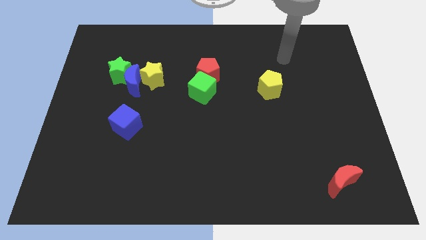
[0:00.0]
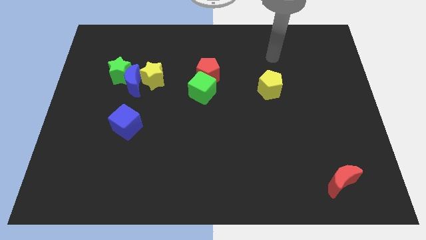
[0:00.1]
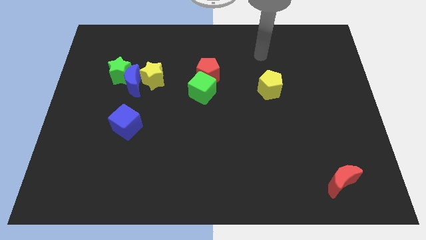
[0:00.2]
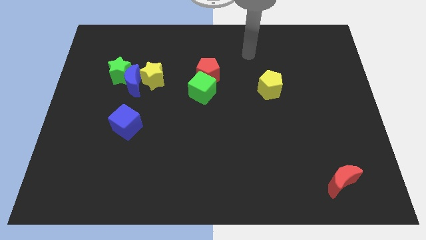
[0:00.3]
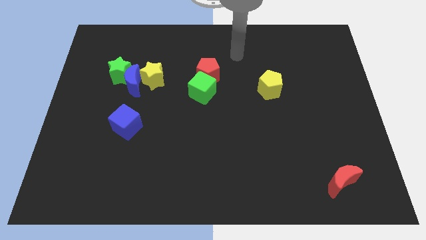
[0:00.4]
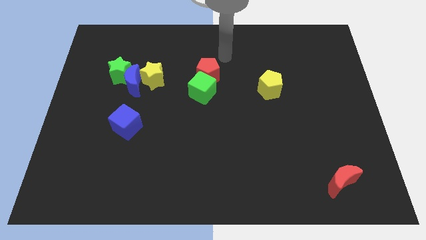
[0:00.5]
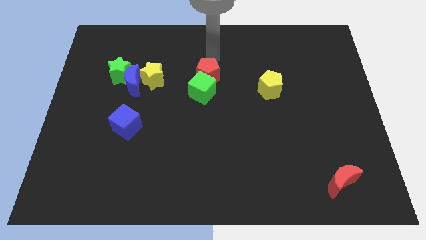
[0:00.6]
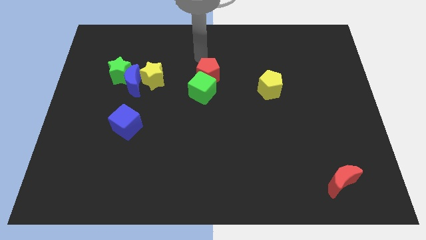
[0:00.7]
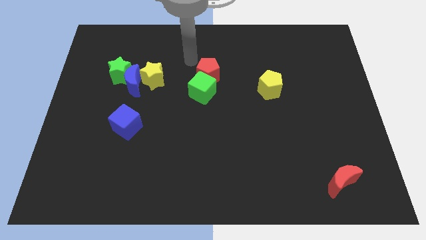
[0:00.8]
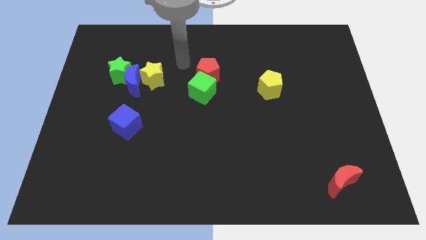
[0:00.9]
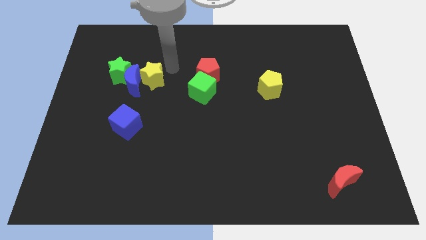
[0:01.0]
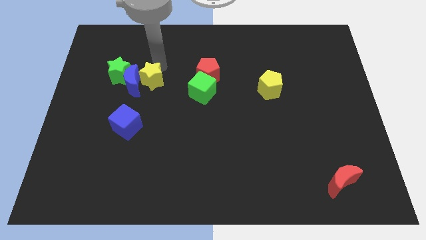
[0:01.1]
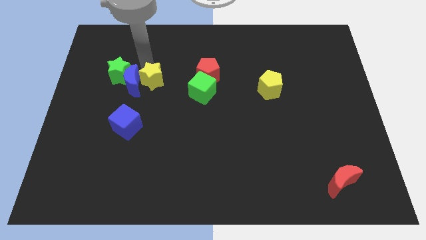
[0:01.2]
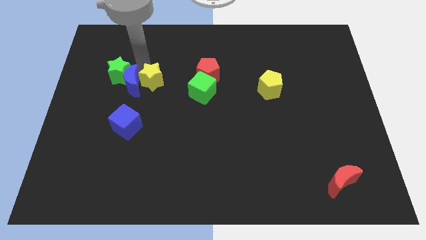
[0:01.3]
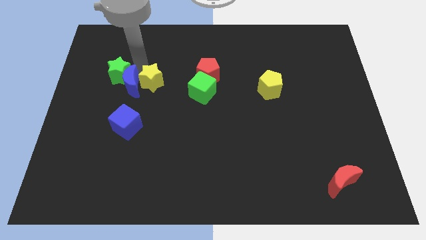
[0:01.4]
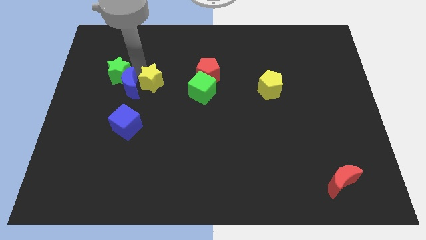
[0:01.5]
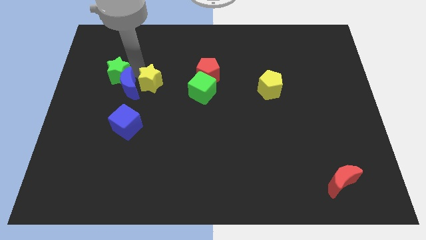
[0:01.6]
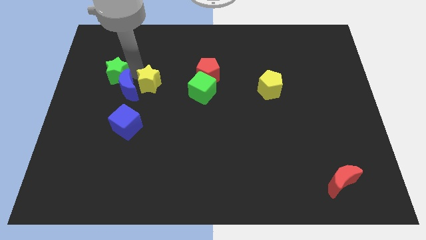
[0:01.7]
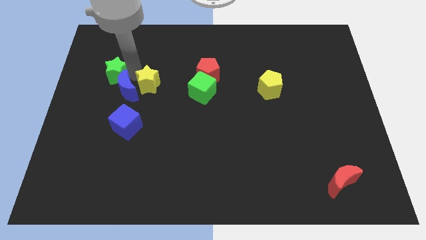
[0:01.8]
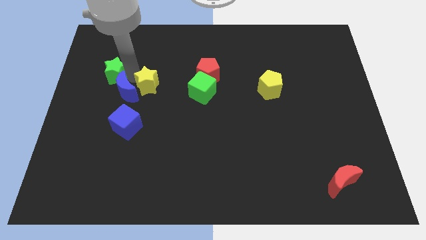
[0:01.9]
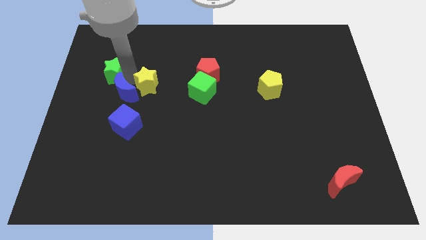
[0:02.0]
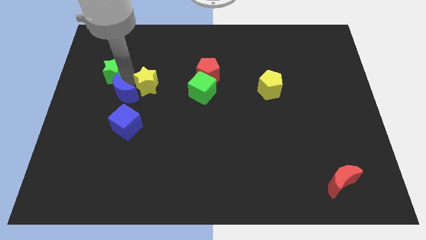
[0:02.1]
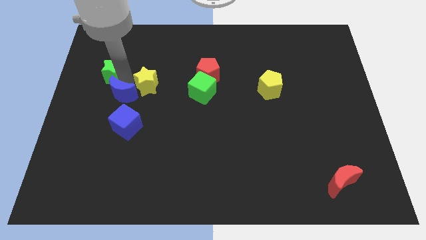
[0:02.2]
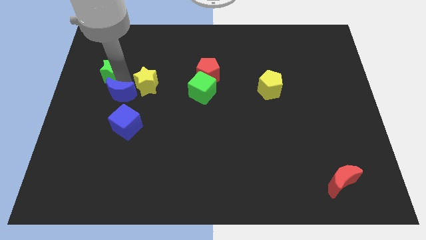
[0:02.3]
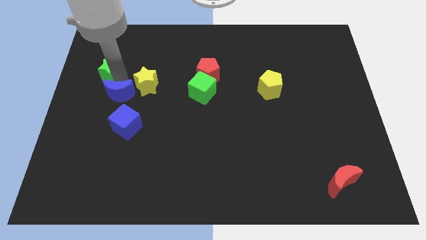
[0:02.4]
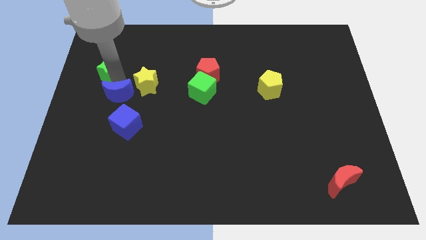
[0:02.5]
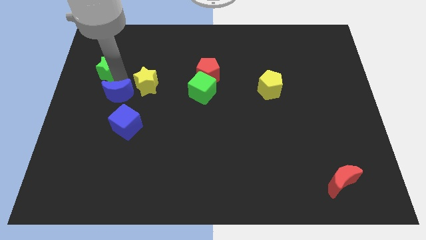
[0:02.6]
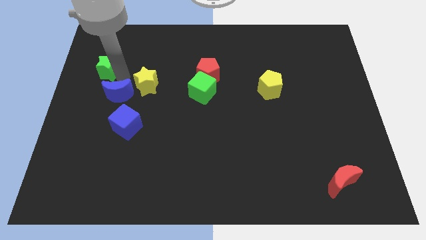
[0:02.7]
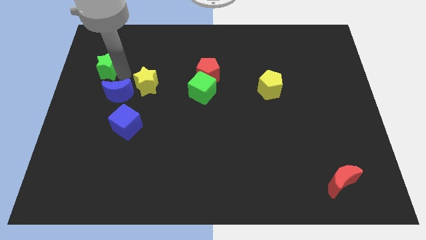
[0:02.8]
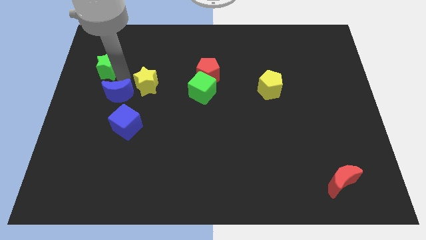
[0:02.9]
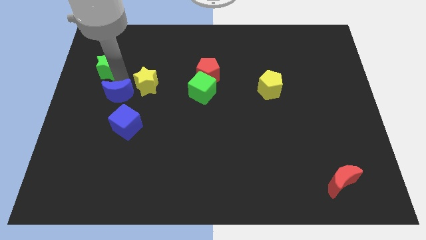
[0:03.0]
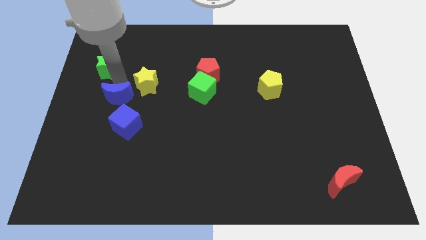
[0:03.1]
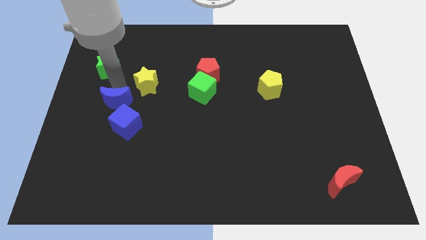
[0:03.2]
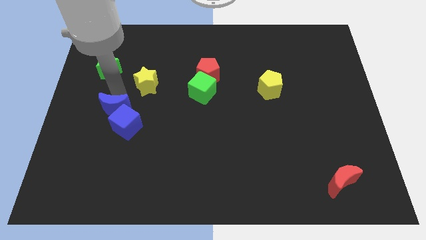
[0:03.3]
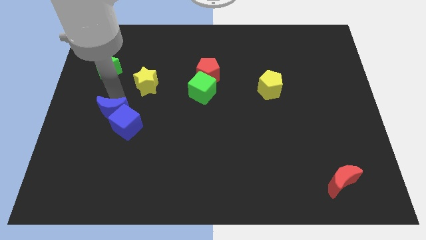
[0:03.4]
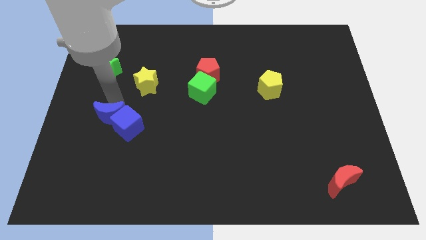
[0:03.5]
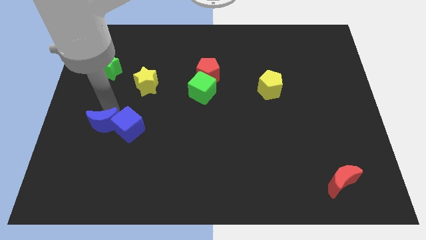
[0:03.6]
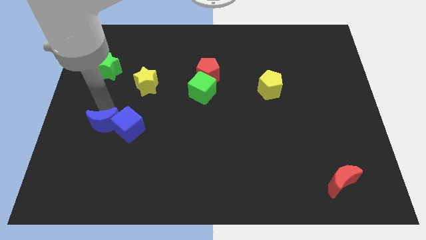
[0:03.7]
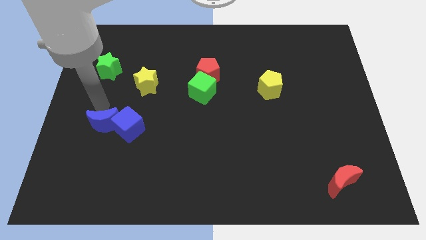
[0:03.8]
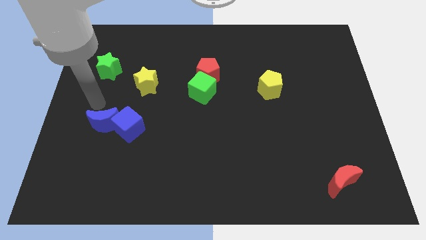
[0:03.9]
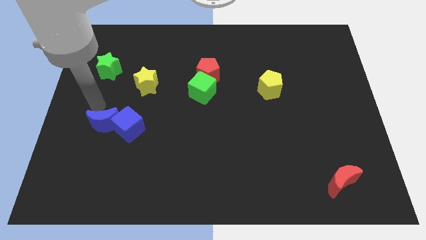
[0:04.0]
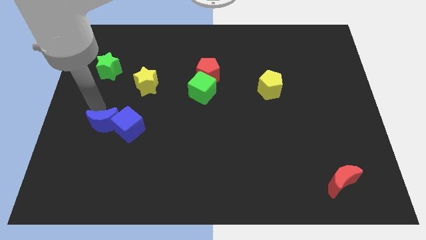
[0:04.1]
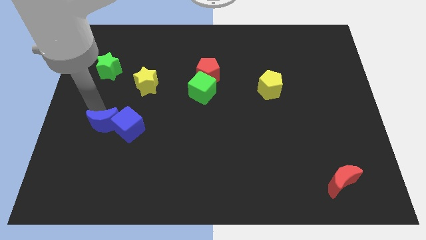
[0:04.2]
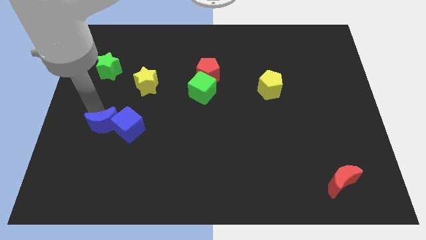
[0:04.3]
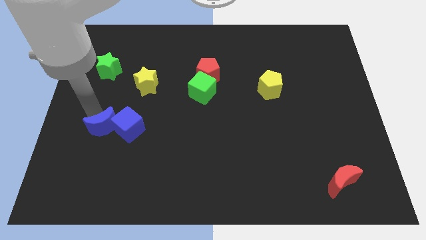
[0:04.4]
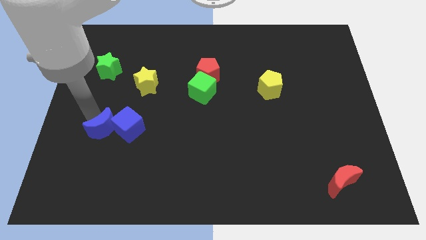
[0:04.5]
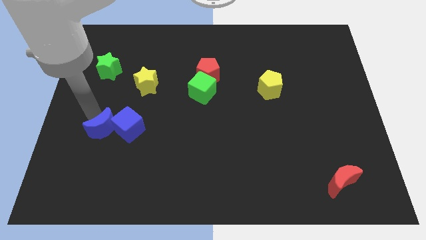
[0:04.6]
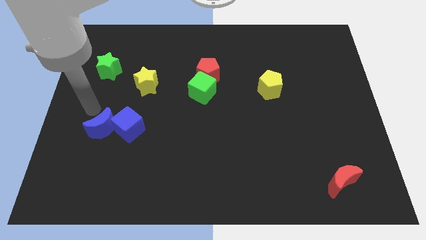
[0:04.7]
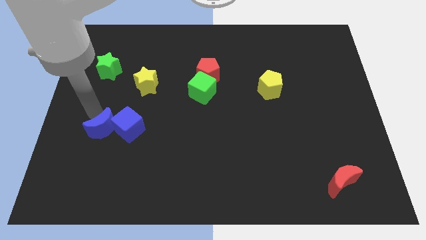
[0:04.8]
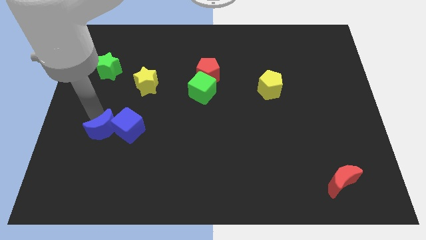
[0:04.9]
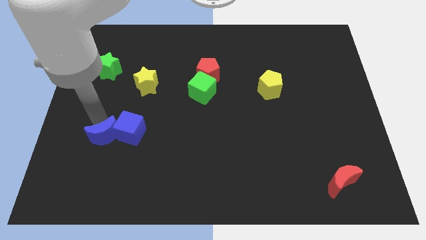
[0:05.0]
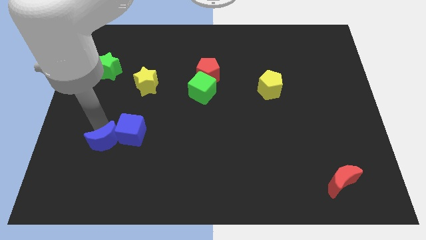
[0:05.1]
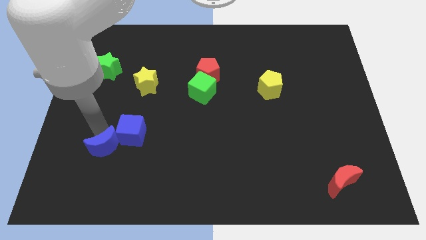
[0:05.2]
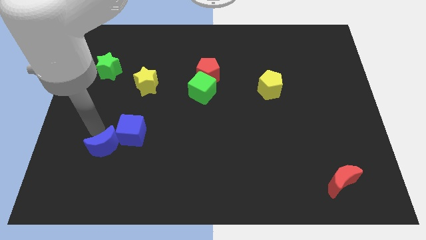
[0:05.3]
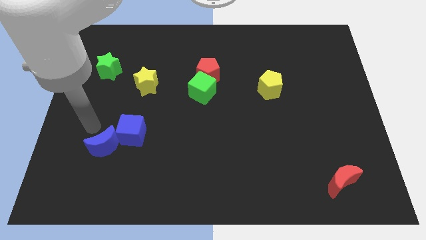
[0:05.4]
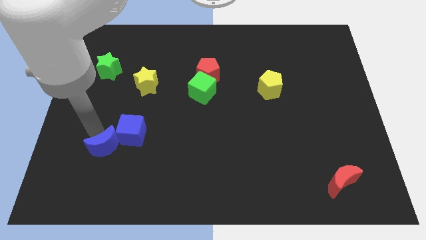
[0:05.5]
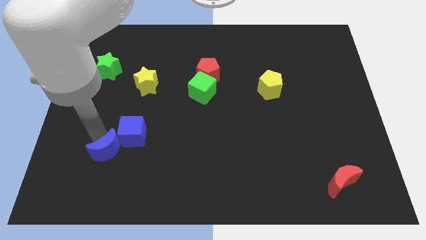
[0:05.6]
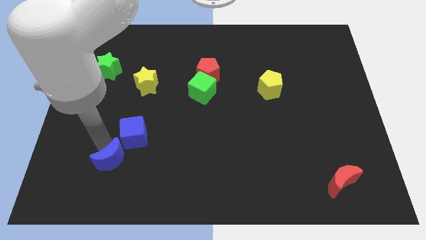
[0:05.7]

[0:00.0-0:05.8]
move the blue moon below the blue cube
